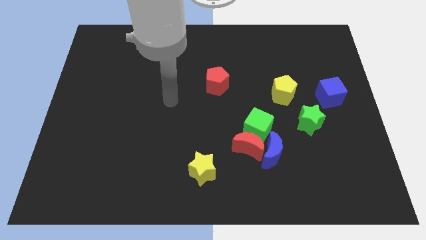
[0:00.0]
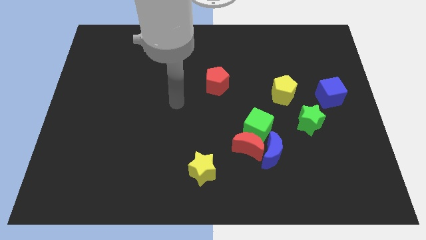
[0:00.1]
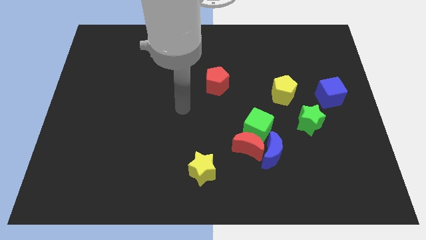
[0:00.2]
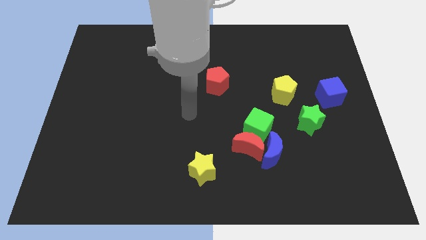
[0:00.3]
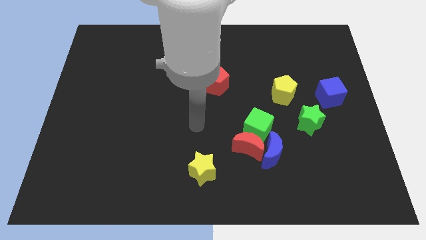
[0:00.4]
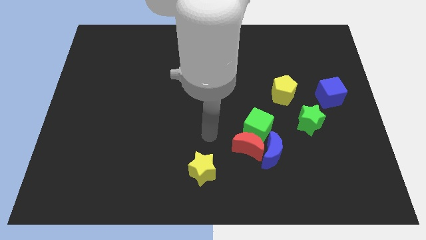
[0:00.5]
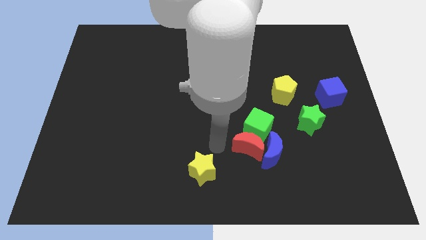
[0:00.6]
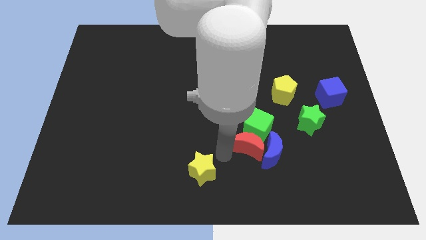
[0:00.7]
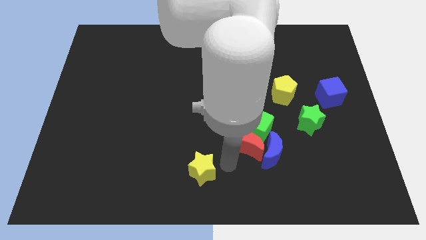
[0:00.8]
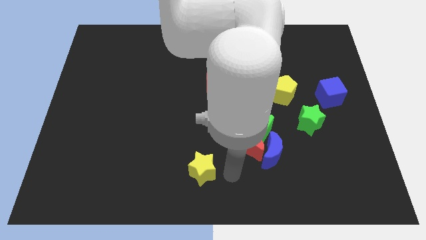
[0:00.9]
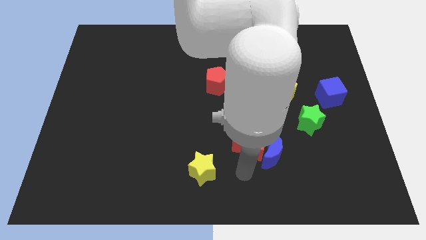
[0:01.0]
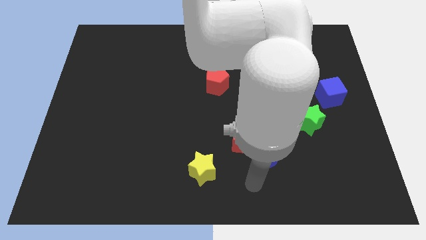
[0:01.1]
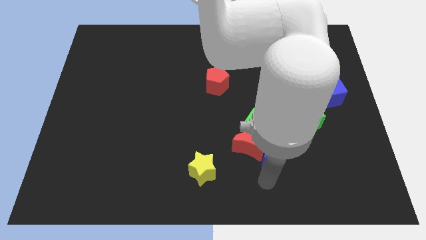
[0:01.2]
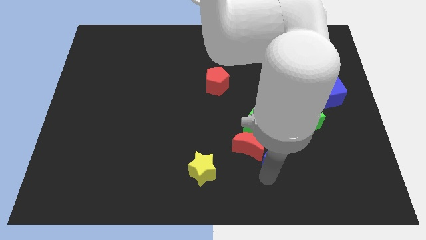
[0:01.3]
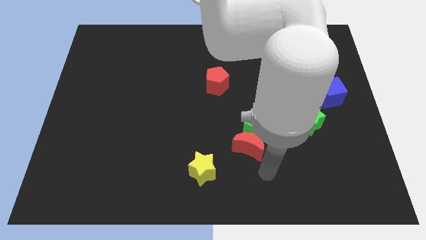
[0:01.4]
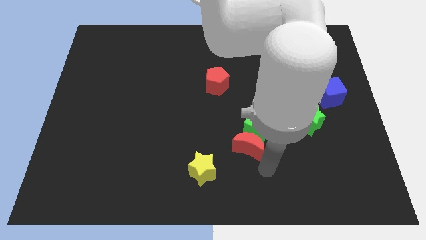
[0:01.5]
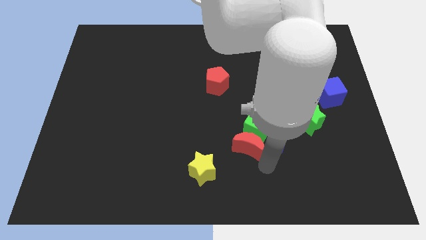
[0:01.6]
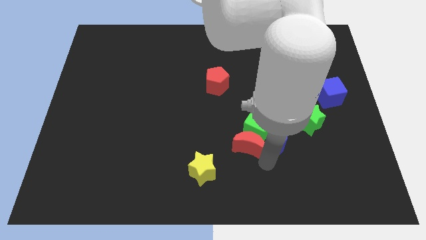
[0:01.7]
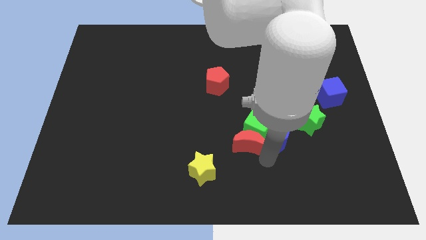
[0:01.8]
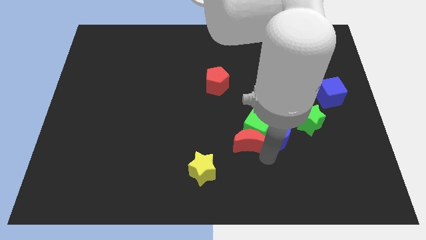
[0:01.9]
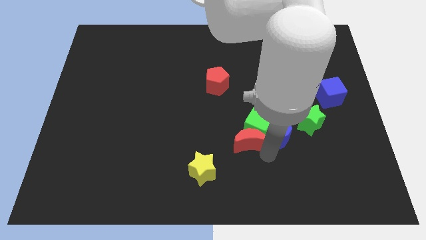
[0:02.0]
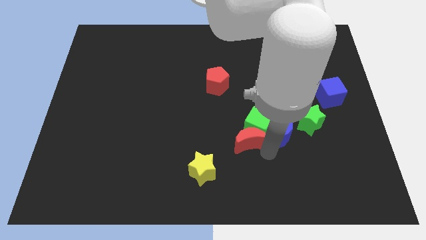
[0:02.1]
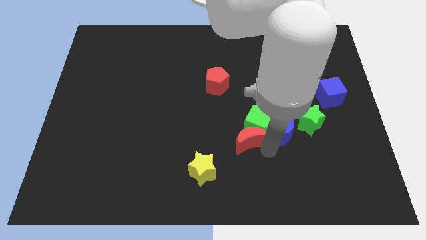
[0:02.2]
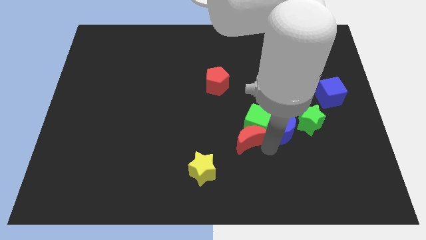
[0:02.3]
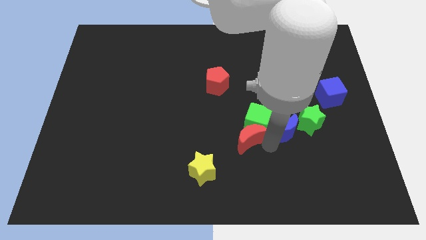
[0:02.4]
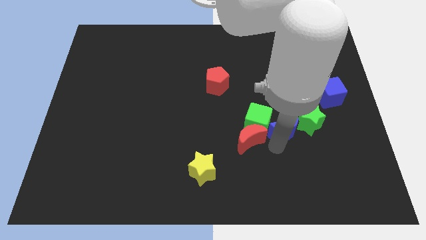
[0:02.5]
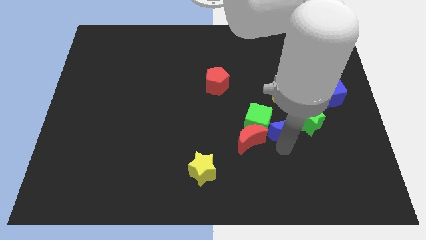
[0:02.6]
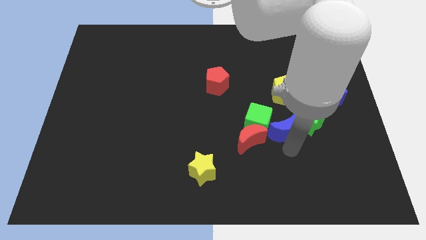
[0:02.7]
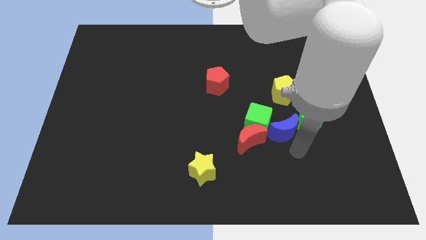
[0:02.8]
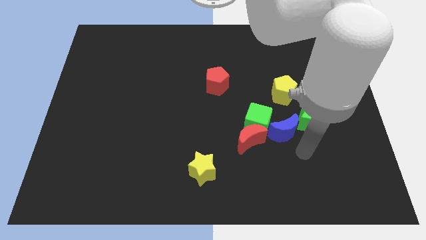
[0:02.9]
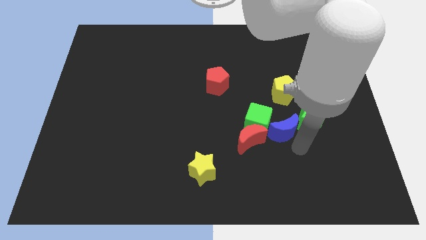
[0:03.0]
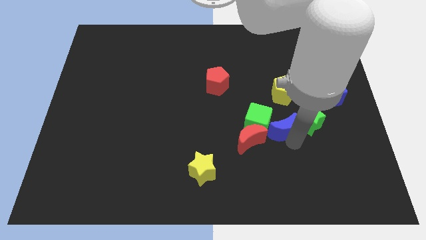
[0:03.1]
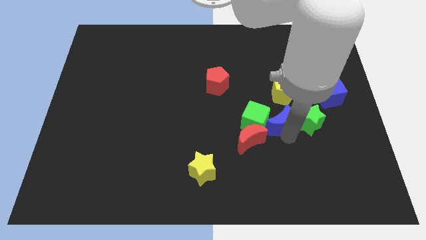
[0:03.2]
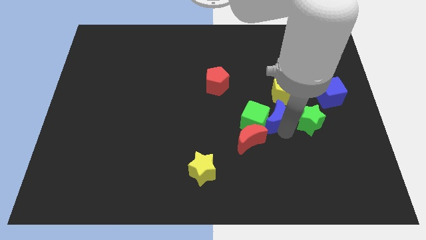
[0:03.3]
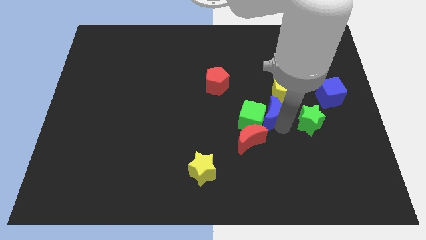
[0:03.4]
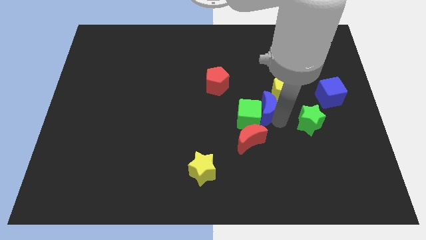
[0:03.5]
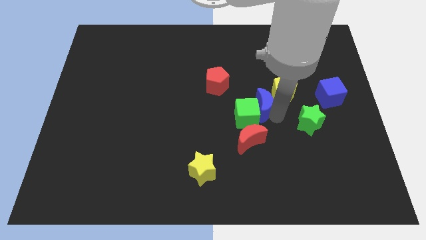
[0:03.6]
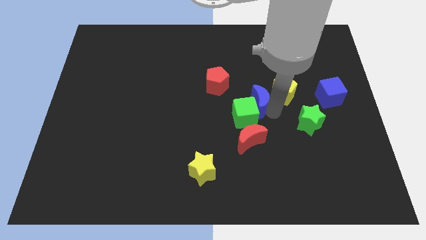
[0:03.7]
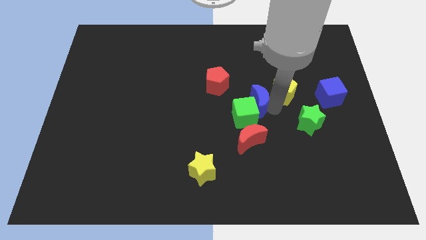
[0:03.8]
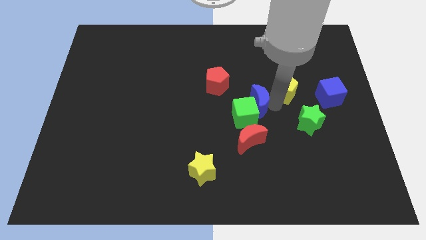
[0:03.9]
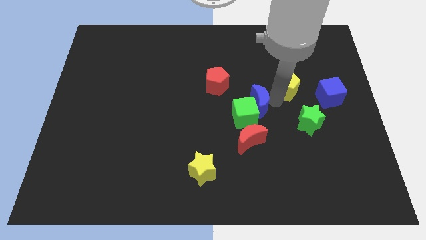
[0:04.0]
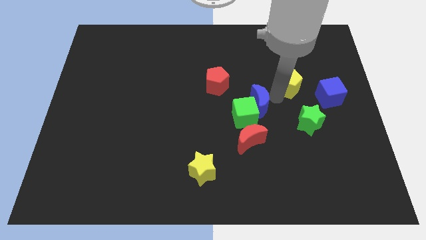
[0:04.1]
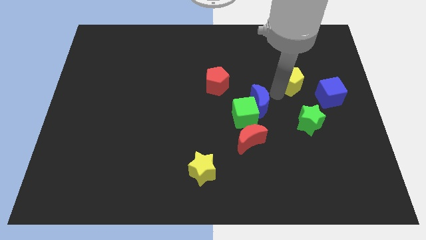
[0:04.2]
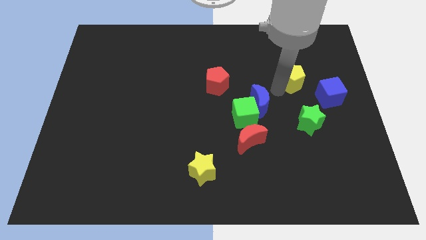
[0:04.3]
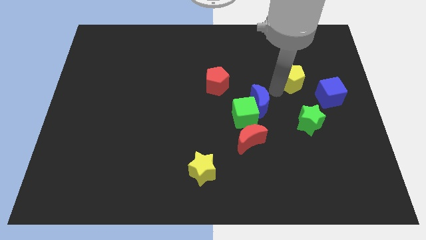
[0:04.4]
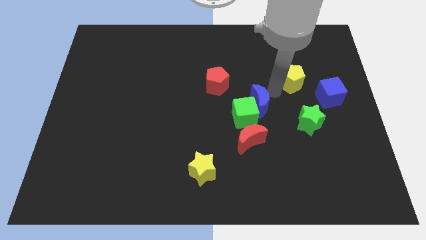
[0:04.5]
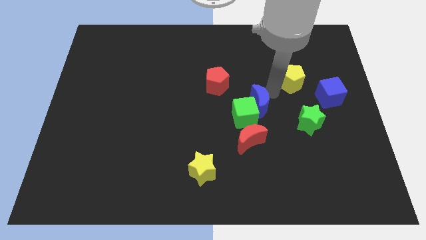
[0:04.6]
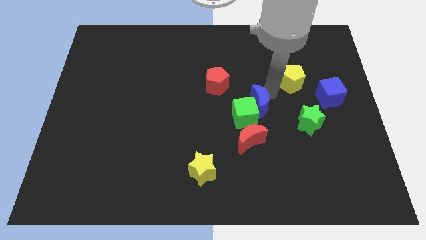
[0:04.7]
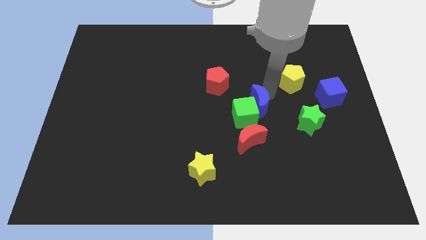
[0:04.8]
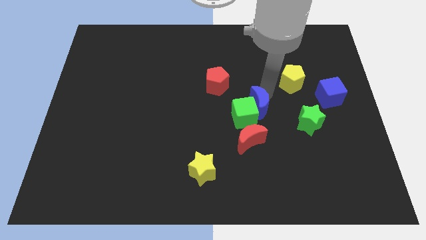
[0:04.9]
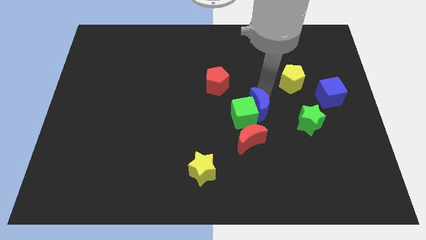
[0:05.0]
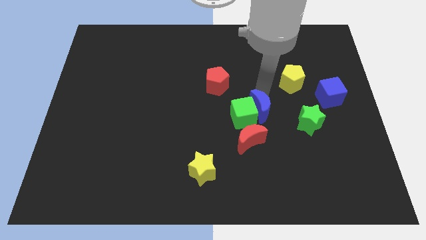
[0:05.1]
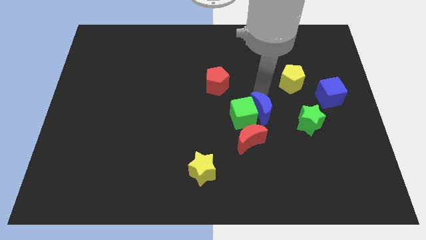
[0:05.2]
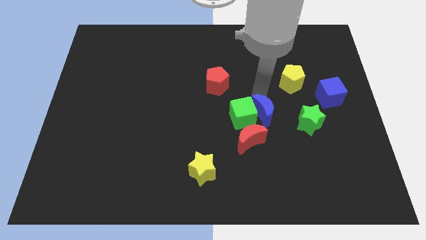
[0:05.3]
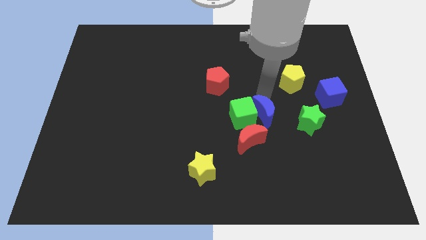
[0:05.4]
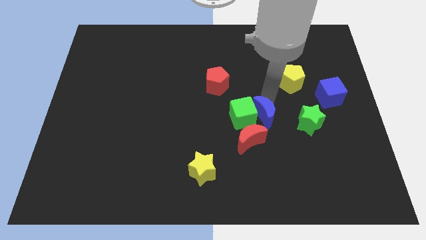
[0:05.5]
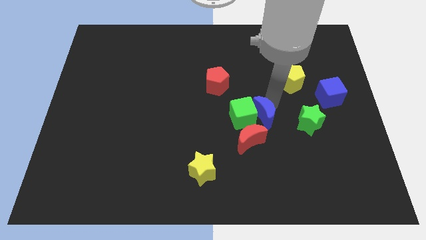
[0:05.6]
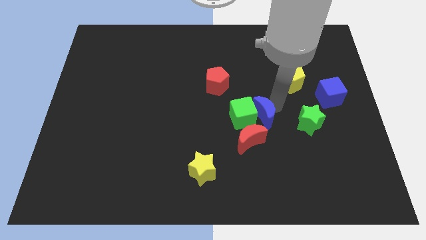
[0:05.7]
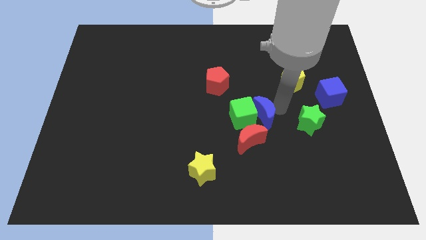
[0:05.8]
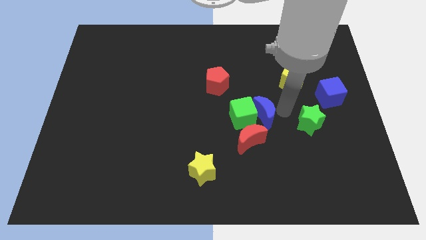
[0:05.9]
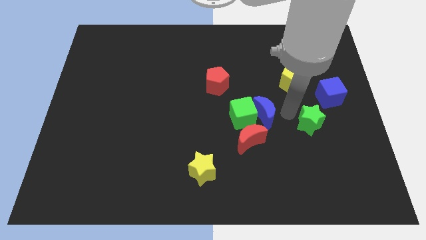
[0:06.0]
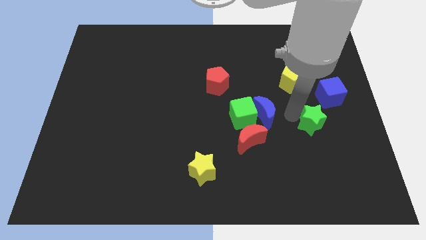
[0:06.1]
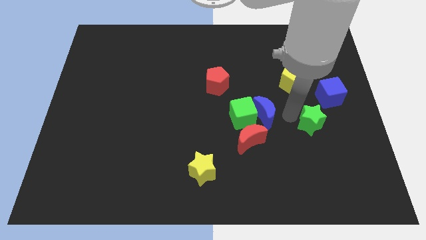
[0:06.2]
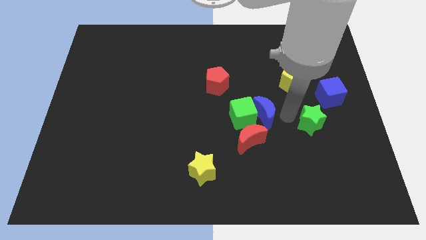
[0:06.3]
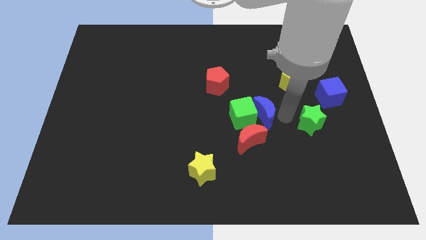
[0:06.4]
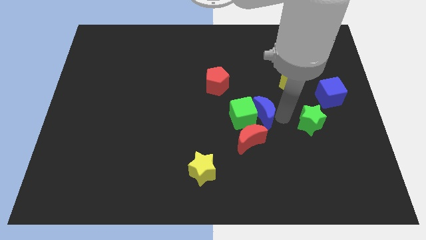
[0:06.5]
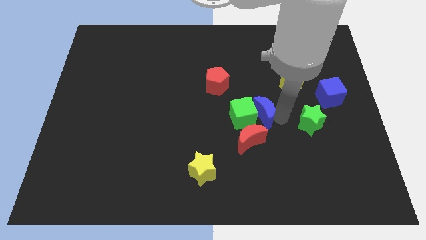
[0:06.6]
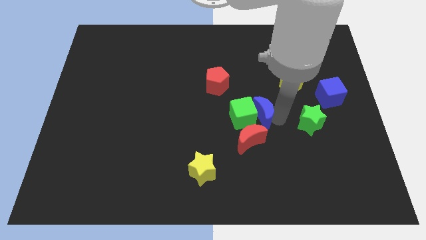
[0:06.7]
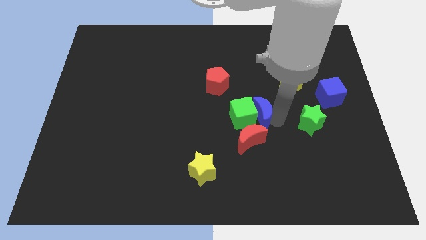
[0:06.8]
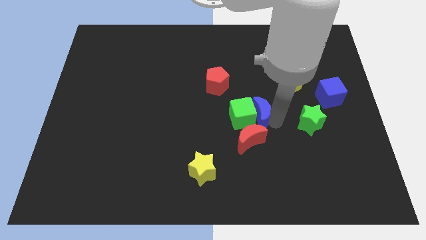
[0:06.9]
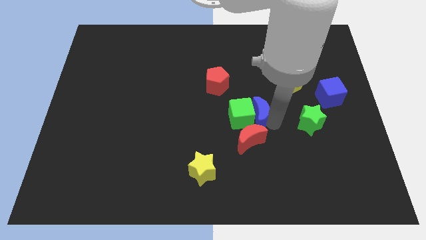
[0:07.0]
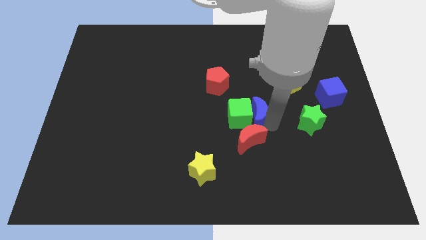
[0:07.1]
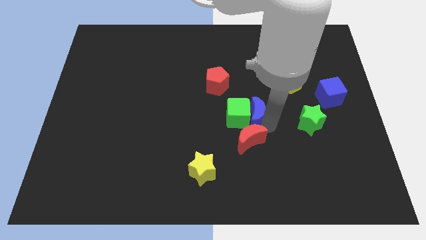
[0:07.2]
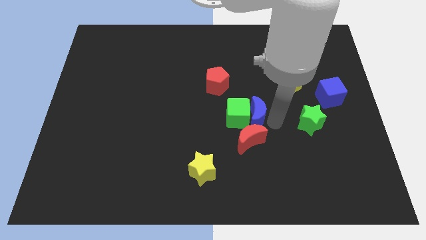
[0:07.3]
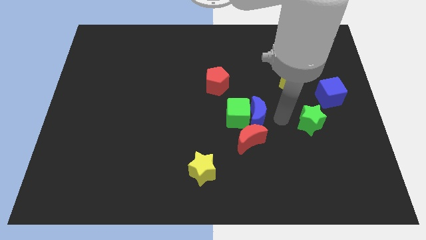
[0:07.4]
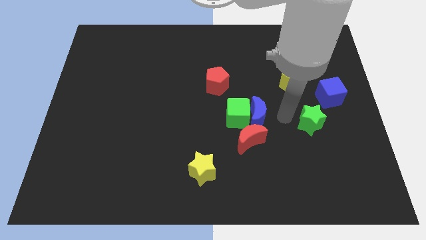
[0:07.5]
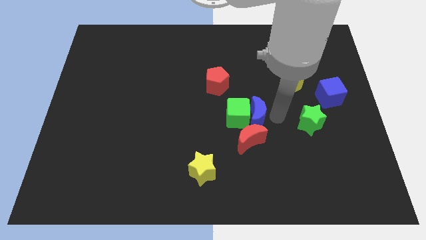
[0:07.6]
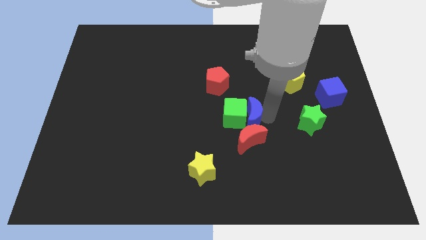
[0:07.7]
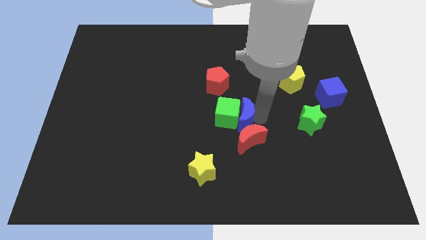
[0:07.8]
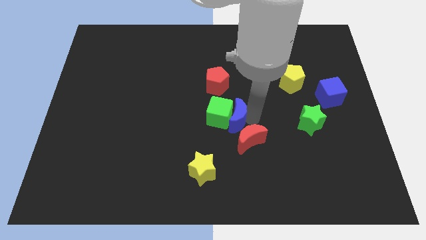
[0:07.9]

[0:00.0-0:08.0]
move the blue moon below the red pentagon
